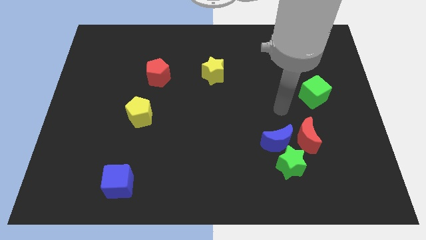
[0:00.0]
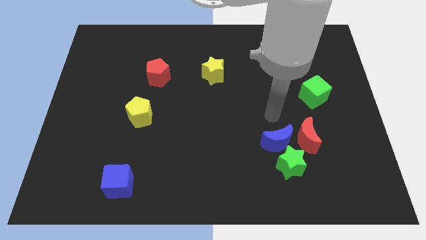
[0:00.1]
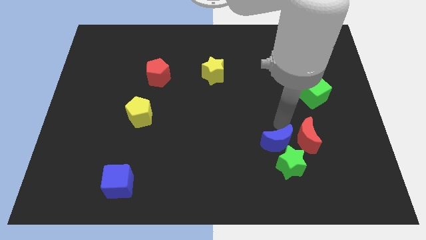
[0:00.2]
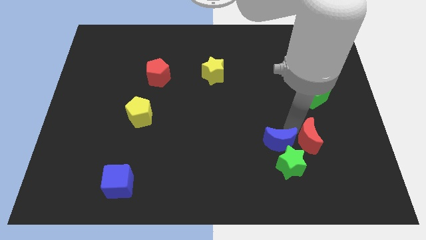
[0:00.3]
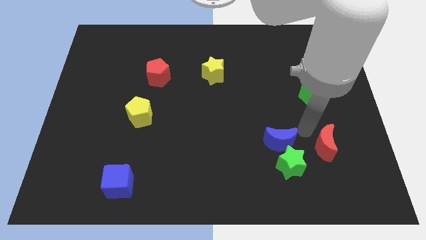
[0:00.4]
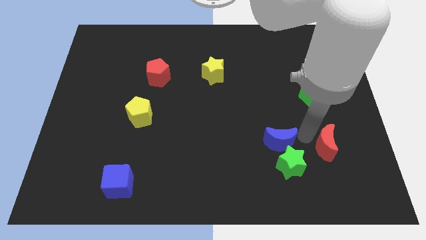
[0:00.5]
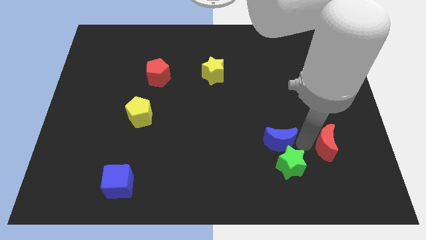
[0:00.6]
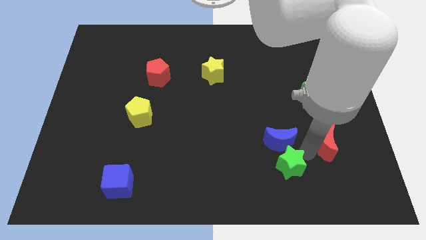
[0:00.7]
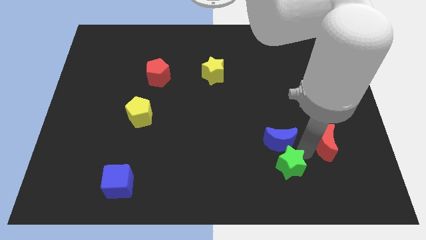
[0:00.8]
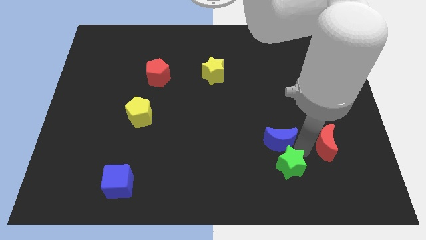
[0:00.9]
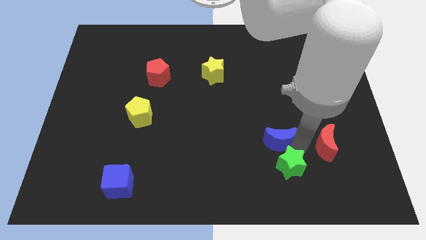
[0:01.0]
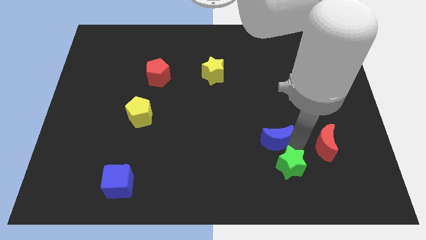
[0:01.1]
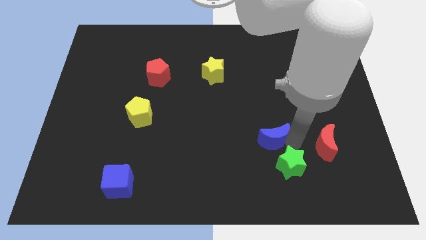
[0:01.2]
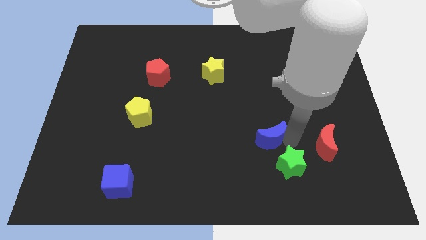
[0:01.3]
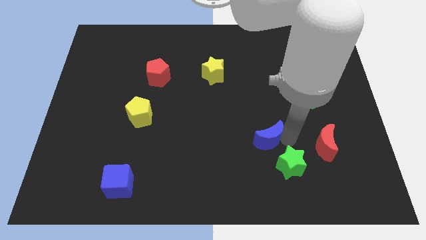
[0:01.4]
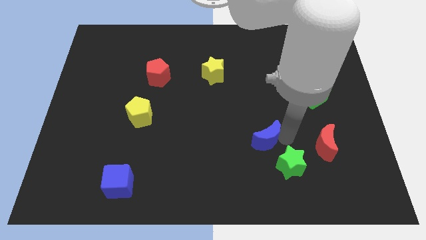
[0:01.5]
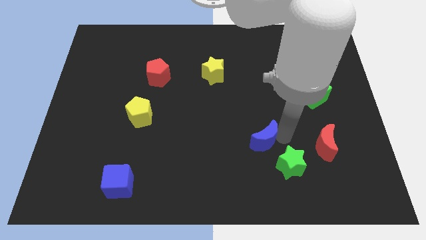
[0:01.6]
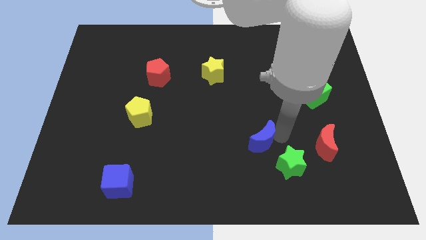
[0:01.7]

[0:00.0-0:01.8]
move the blue moon away from the green star and red moon

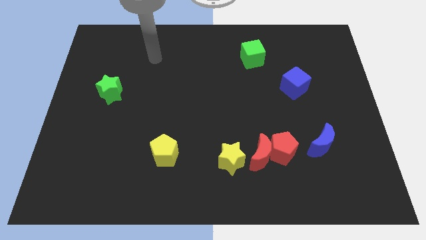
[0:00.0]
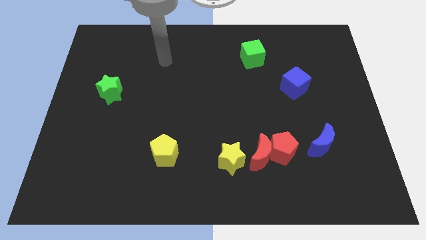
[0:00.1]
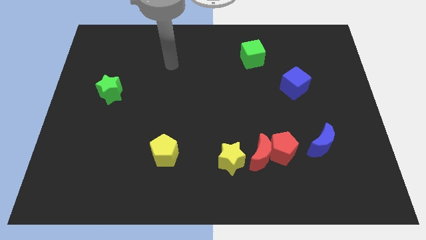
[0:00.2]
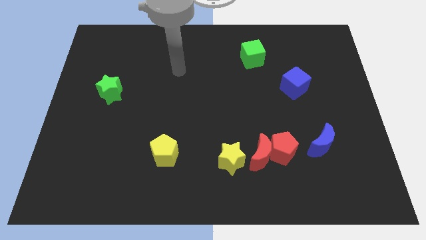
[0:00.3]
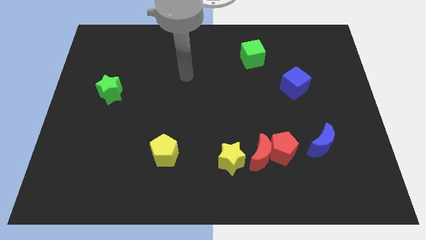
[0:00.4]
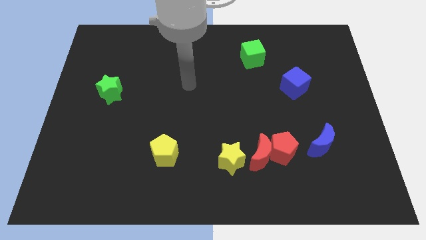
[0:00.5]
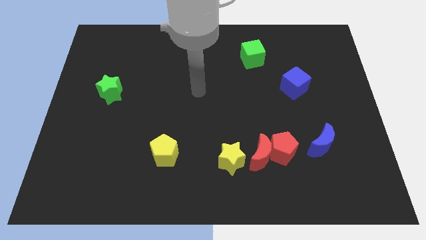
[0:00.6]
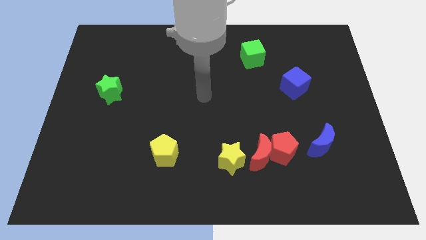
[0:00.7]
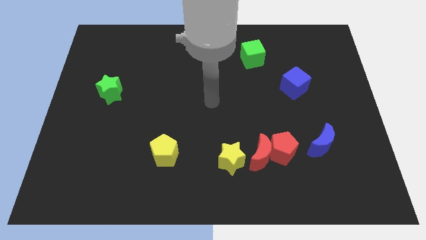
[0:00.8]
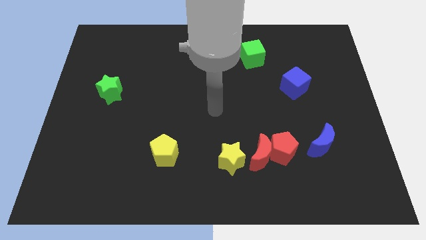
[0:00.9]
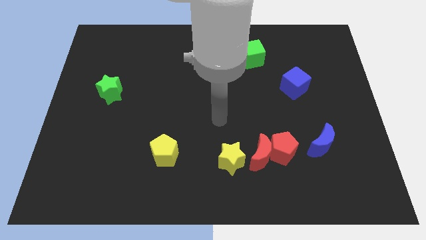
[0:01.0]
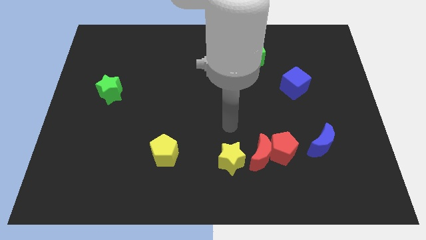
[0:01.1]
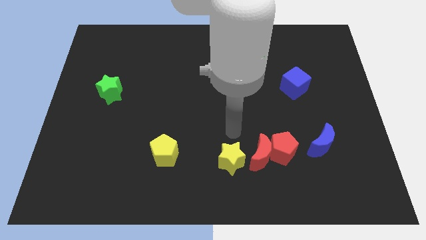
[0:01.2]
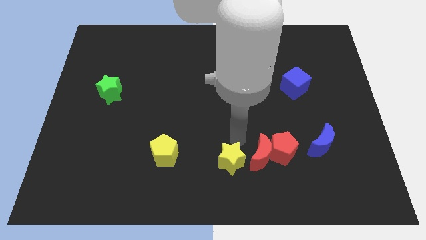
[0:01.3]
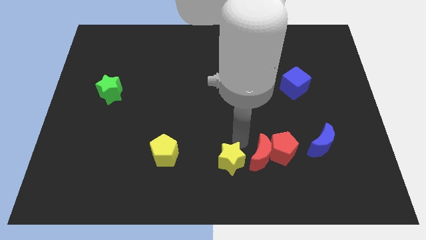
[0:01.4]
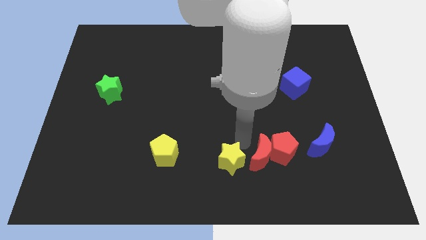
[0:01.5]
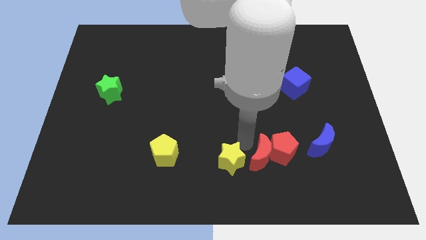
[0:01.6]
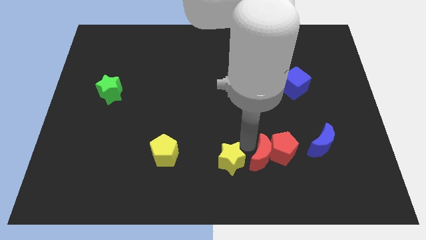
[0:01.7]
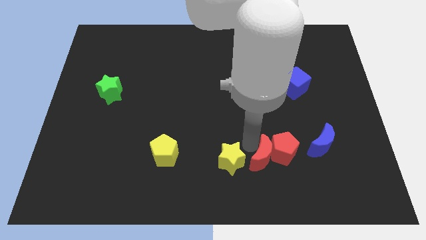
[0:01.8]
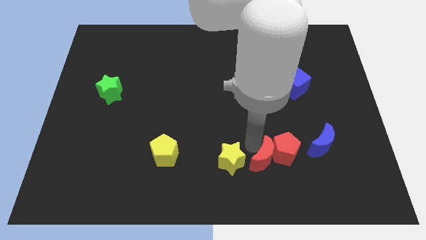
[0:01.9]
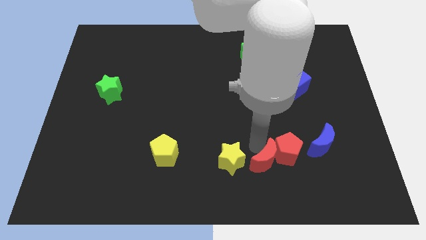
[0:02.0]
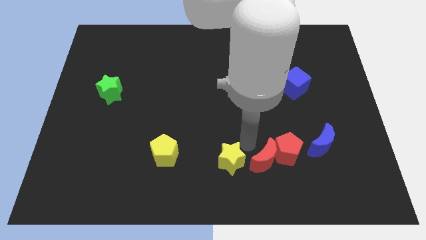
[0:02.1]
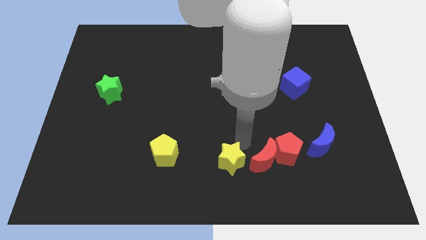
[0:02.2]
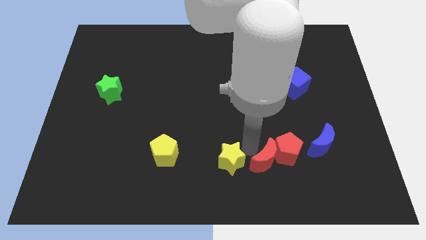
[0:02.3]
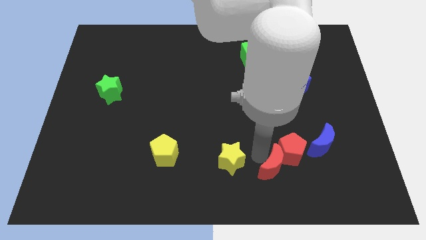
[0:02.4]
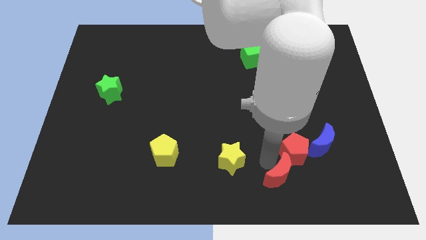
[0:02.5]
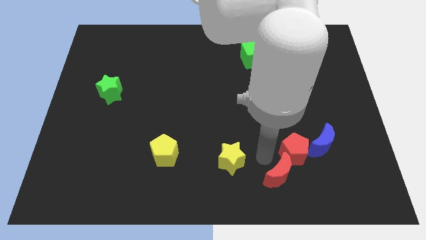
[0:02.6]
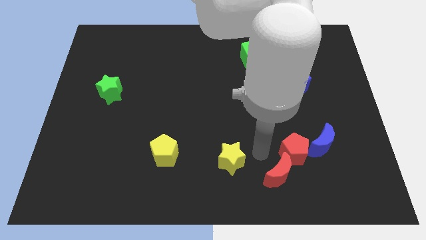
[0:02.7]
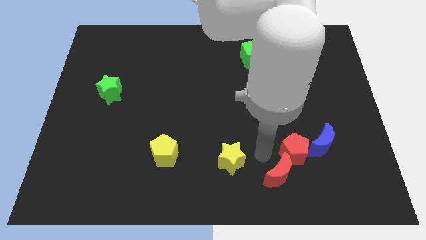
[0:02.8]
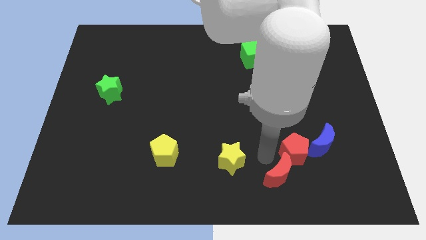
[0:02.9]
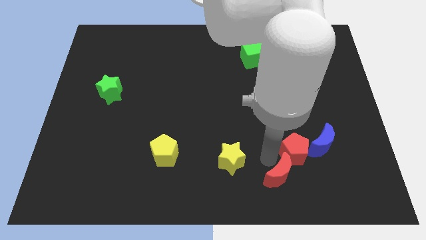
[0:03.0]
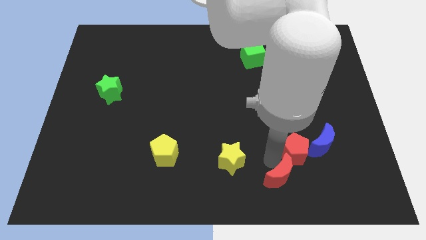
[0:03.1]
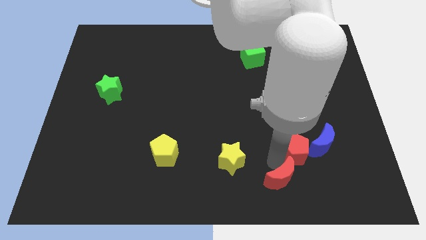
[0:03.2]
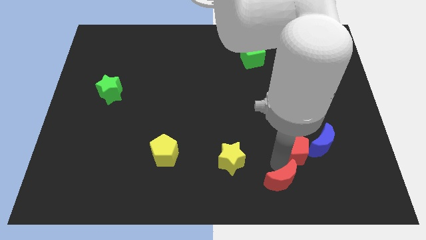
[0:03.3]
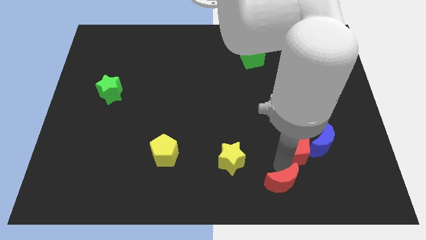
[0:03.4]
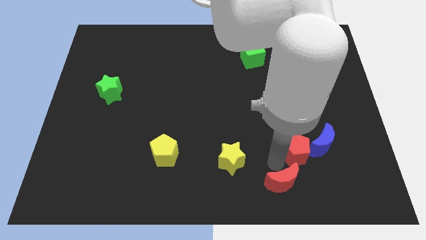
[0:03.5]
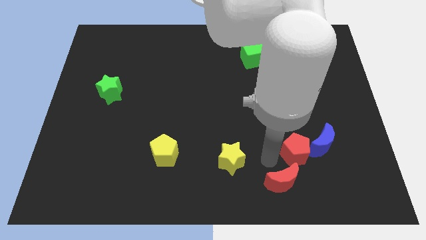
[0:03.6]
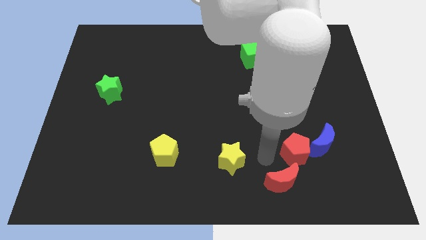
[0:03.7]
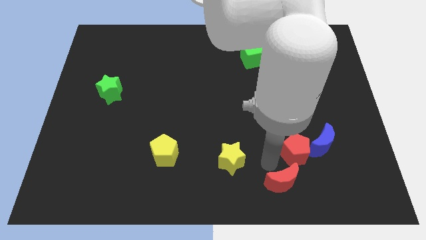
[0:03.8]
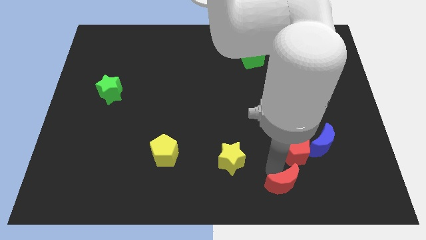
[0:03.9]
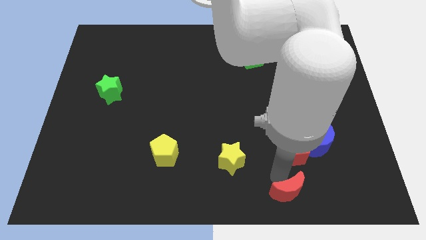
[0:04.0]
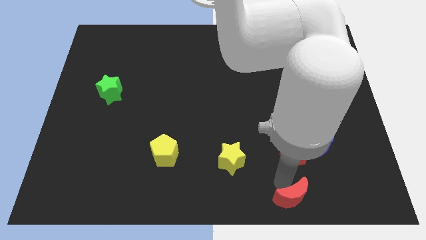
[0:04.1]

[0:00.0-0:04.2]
pull the red moon apart from the red pentagon and yellow star

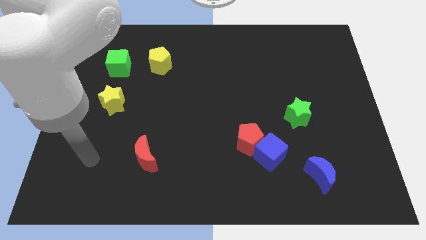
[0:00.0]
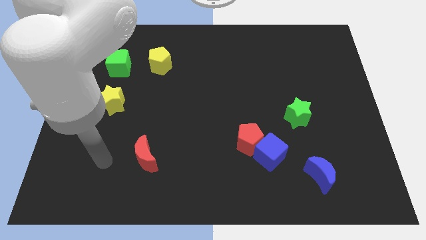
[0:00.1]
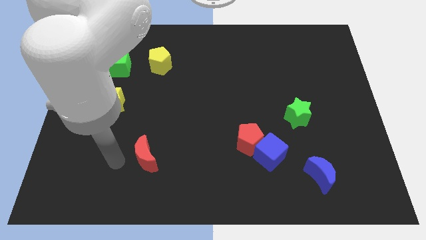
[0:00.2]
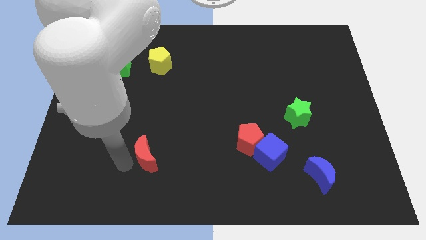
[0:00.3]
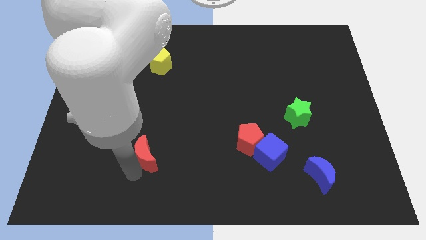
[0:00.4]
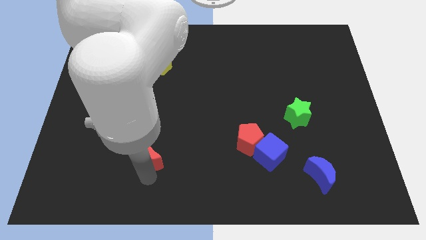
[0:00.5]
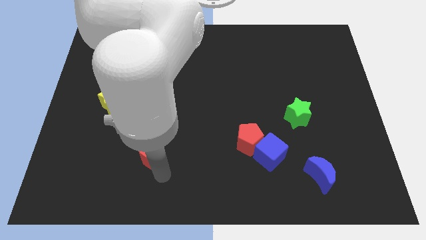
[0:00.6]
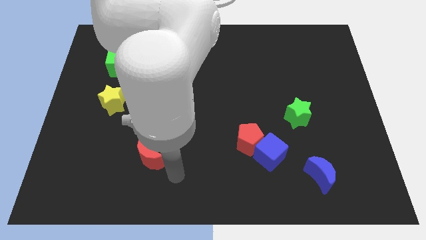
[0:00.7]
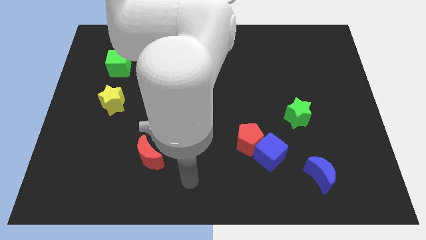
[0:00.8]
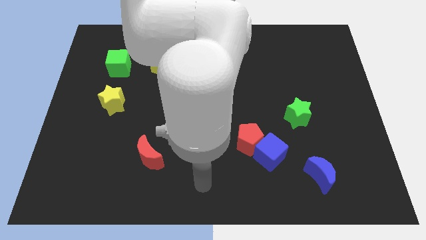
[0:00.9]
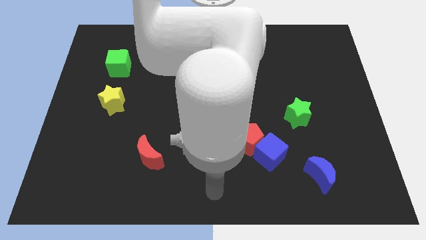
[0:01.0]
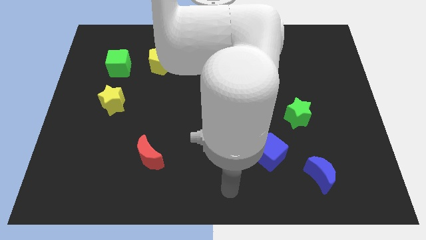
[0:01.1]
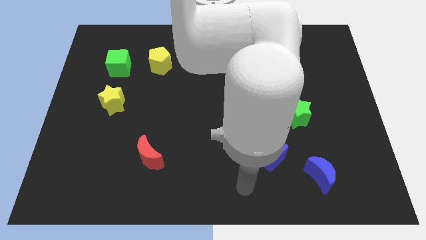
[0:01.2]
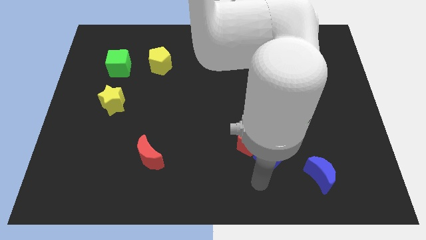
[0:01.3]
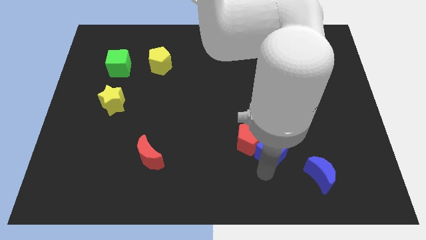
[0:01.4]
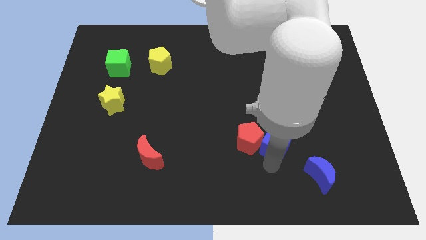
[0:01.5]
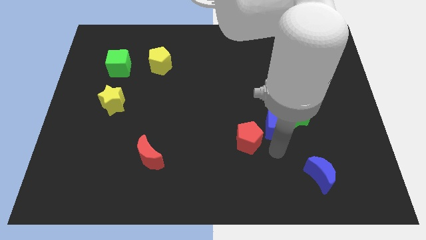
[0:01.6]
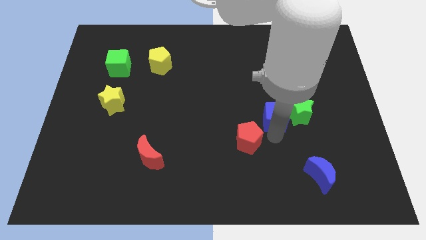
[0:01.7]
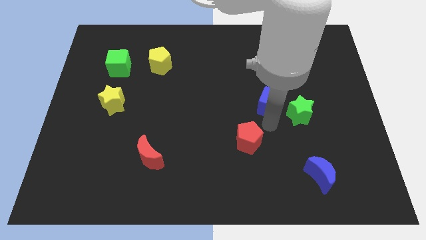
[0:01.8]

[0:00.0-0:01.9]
pull the red pentagon apart from the blue cube

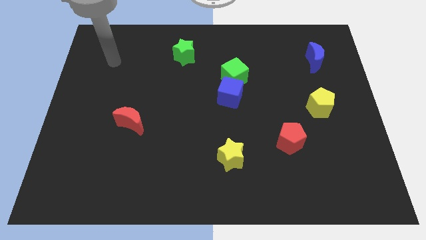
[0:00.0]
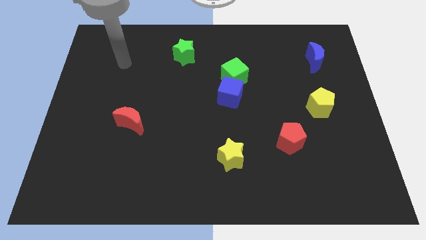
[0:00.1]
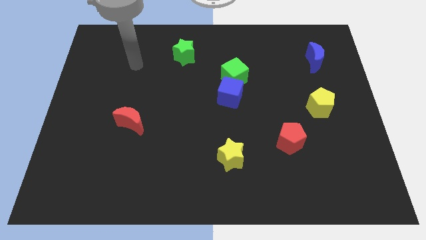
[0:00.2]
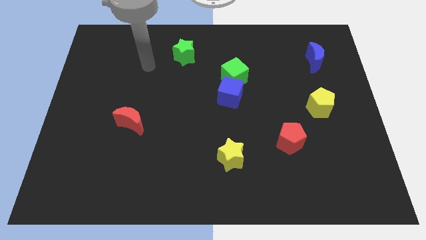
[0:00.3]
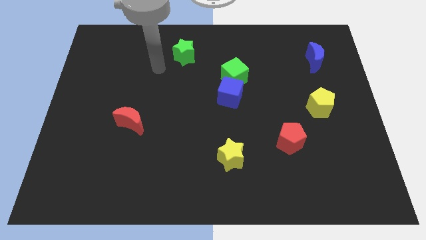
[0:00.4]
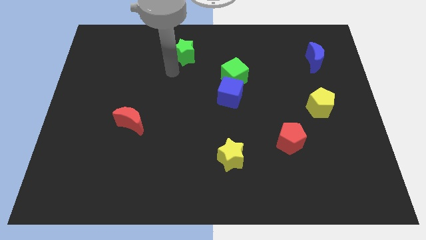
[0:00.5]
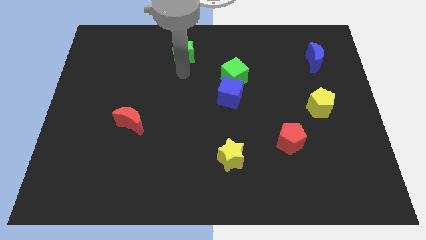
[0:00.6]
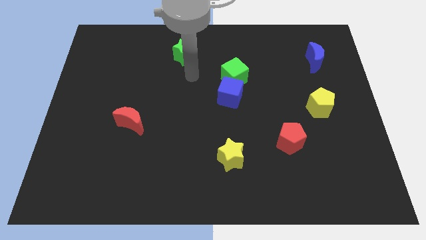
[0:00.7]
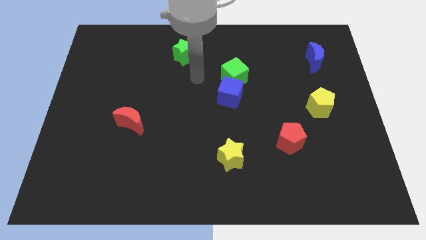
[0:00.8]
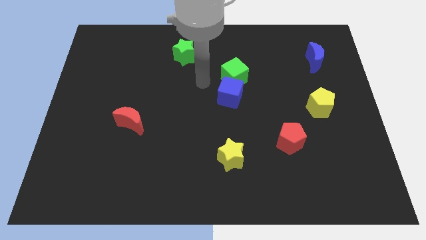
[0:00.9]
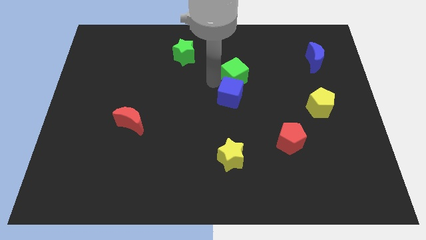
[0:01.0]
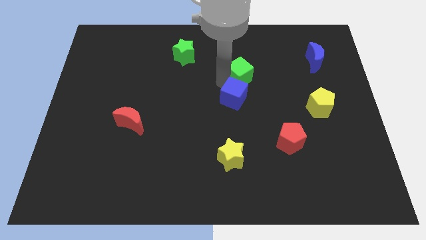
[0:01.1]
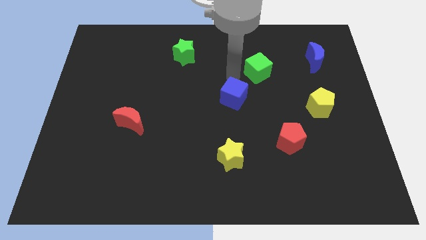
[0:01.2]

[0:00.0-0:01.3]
move the blue cube away from the green cube

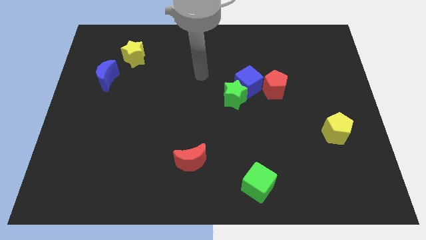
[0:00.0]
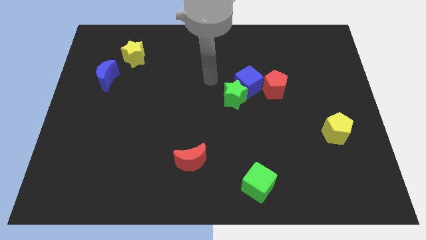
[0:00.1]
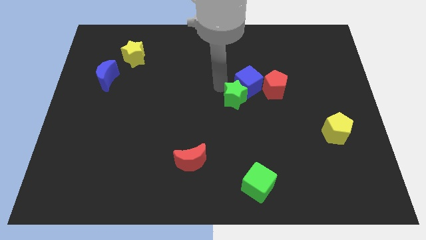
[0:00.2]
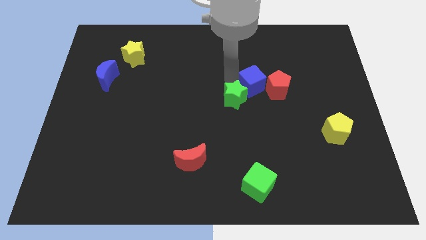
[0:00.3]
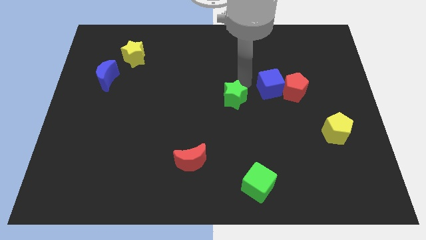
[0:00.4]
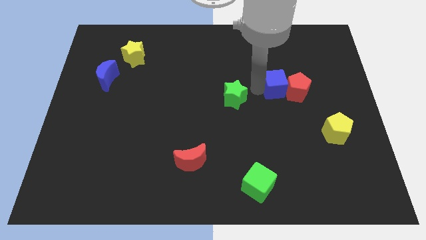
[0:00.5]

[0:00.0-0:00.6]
separate the green star from the blue cube
